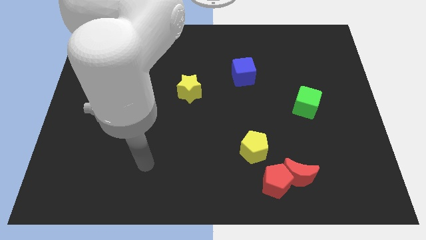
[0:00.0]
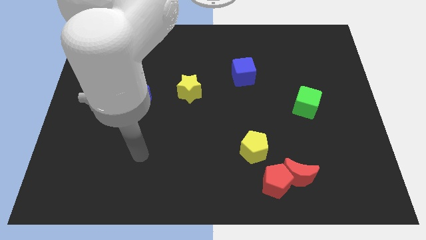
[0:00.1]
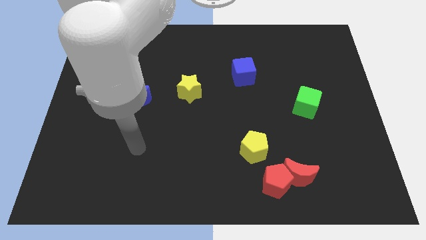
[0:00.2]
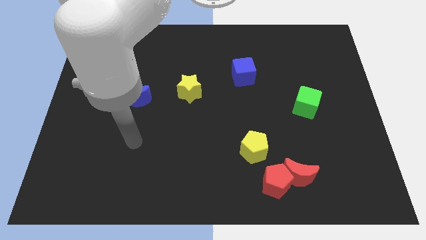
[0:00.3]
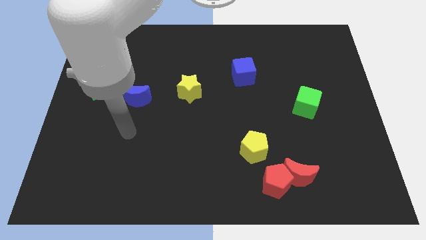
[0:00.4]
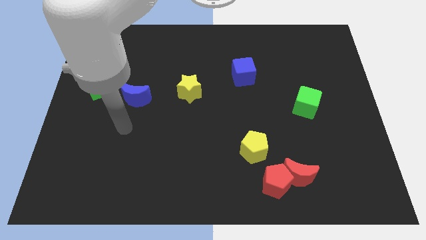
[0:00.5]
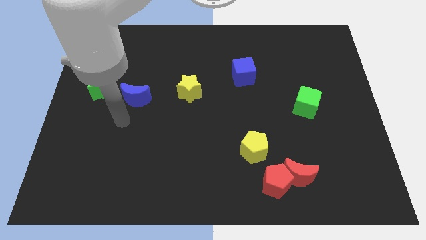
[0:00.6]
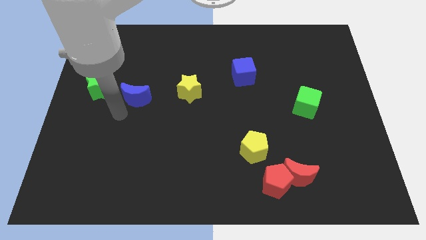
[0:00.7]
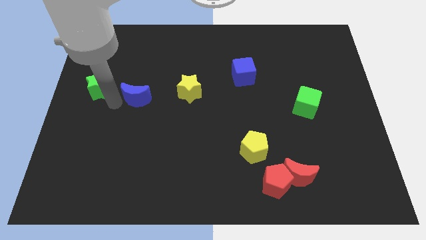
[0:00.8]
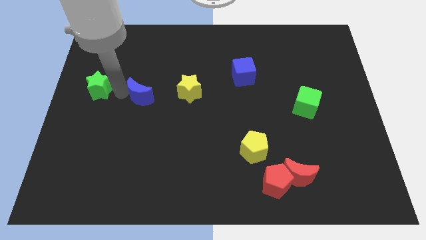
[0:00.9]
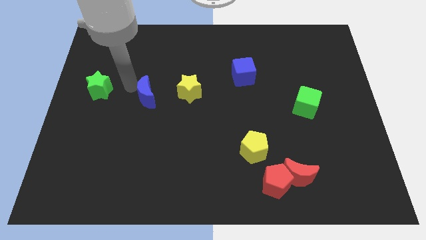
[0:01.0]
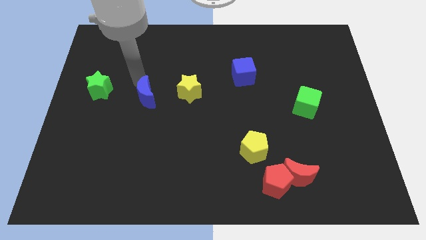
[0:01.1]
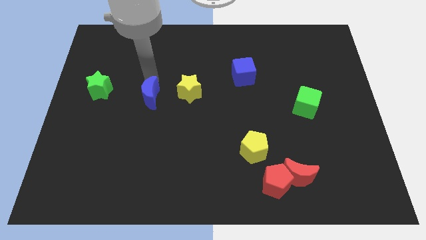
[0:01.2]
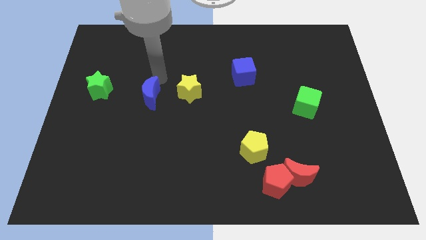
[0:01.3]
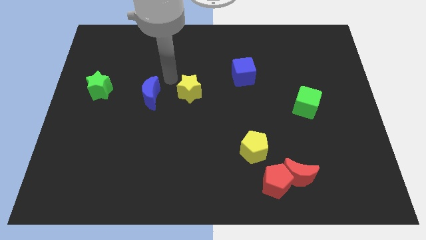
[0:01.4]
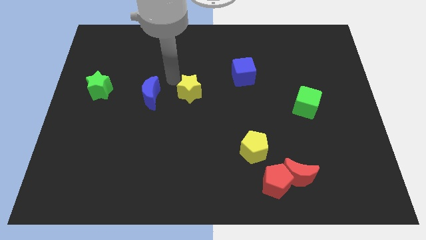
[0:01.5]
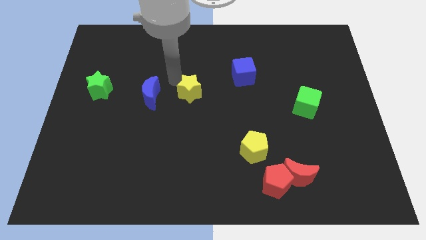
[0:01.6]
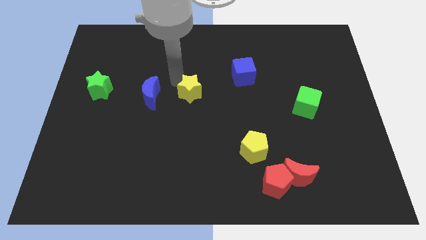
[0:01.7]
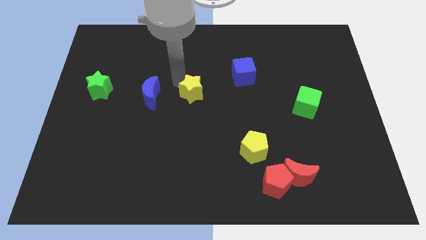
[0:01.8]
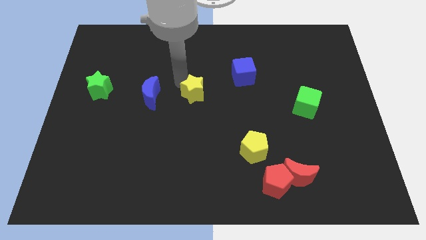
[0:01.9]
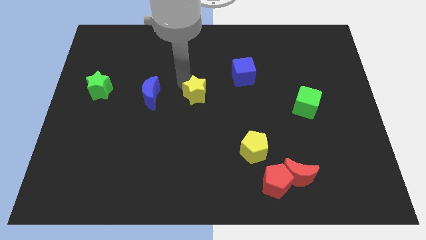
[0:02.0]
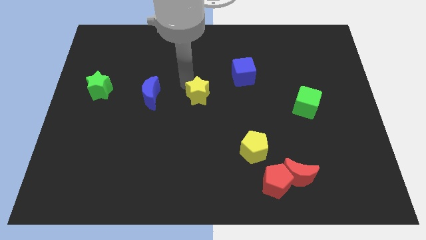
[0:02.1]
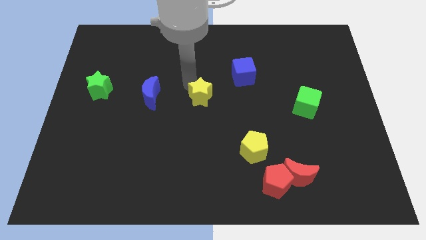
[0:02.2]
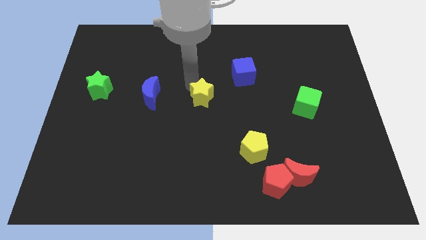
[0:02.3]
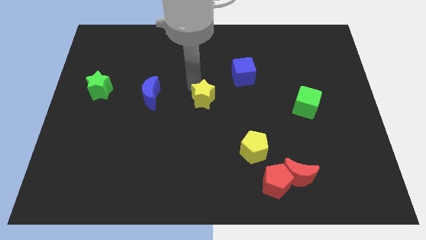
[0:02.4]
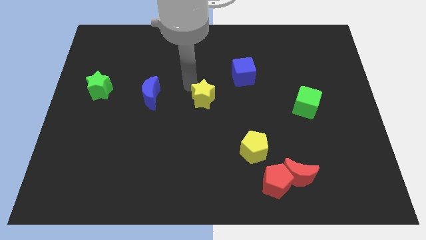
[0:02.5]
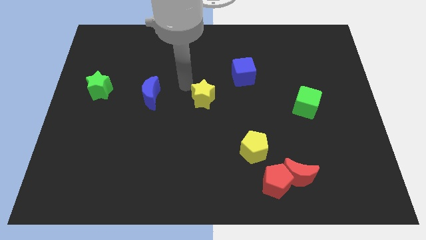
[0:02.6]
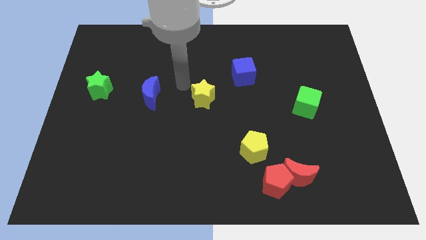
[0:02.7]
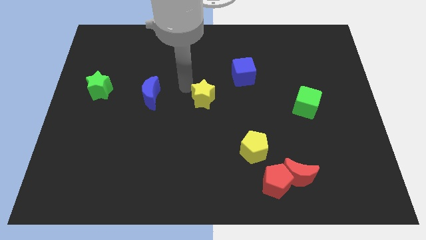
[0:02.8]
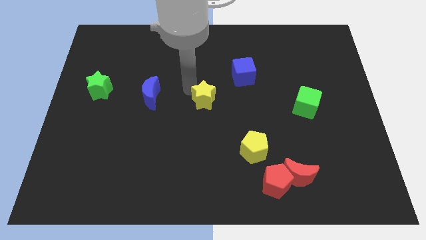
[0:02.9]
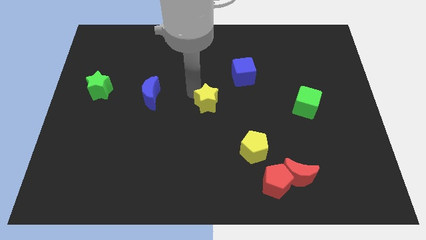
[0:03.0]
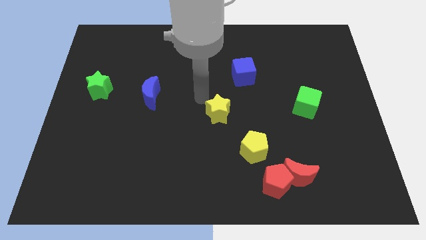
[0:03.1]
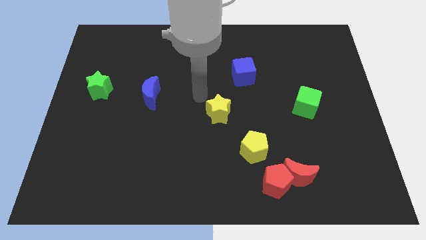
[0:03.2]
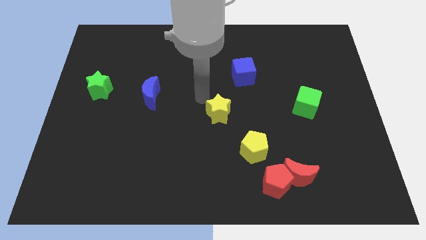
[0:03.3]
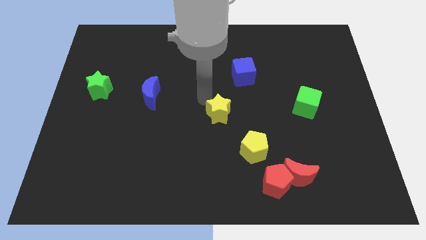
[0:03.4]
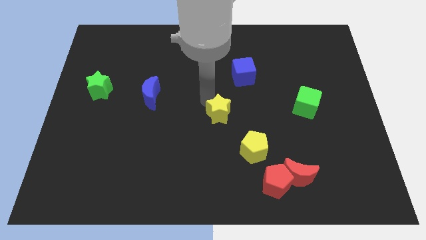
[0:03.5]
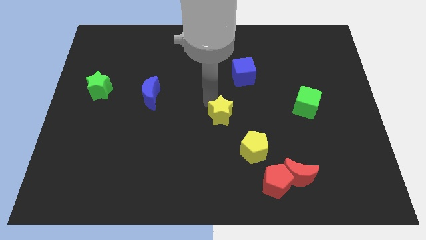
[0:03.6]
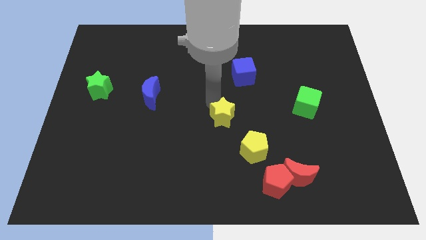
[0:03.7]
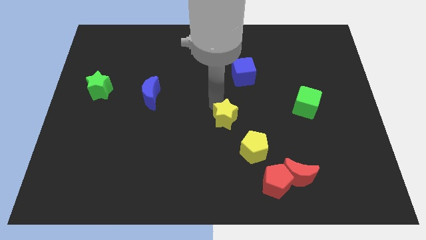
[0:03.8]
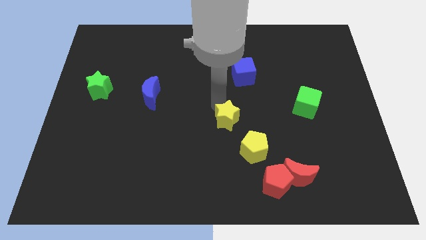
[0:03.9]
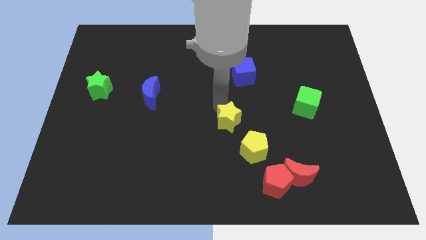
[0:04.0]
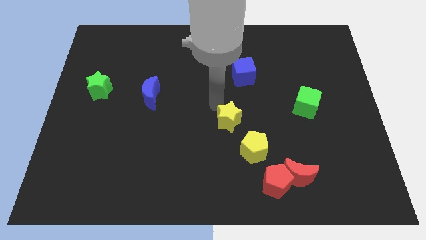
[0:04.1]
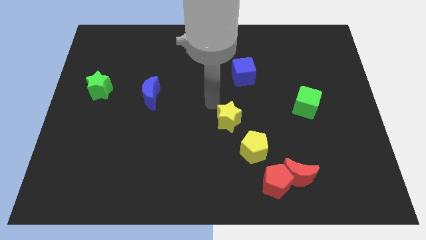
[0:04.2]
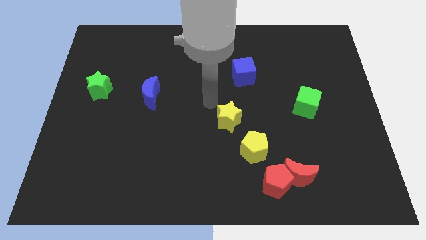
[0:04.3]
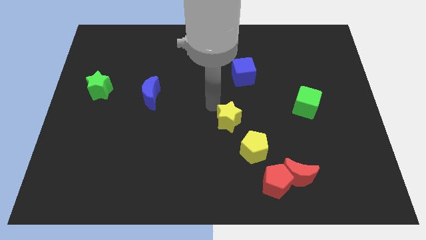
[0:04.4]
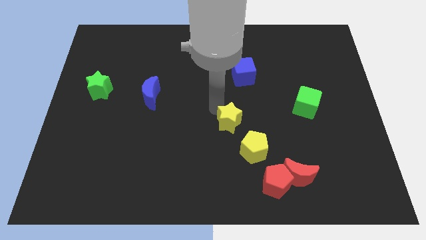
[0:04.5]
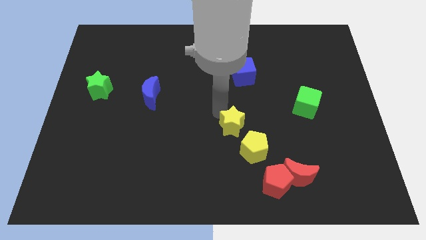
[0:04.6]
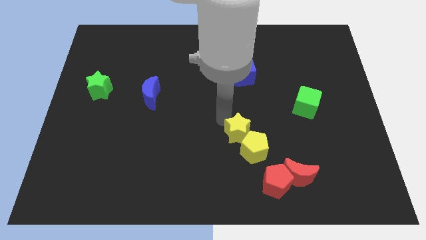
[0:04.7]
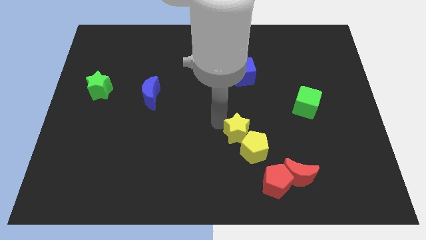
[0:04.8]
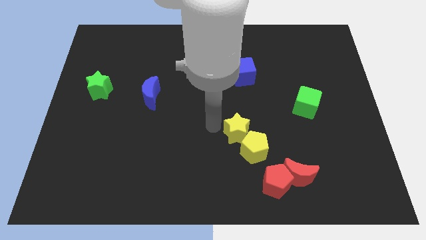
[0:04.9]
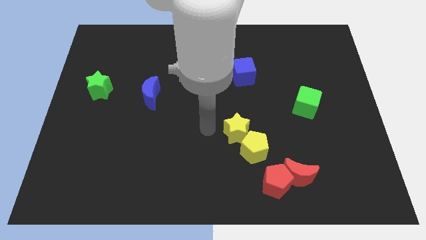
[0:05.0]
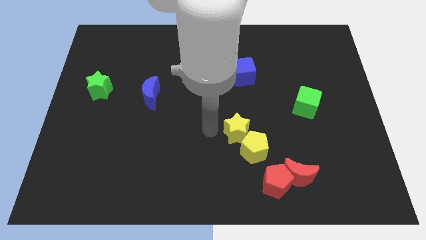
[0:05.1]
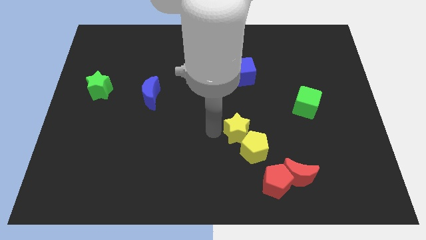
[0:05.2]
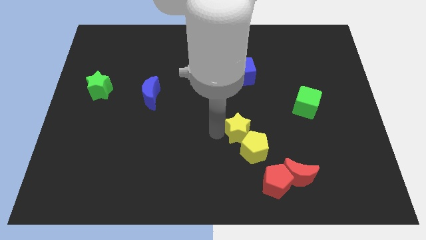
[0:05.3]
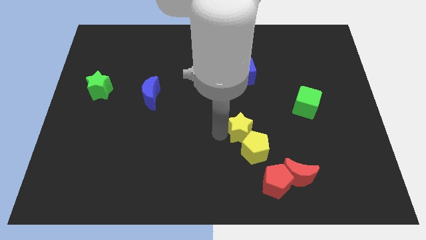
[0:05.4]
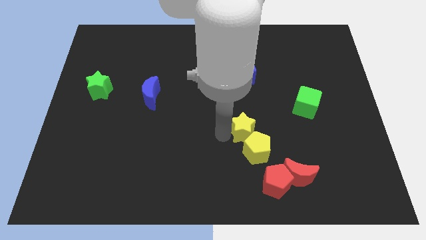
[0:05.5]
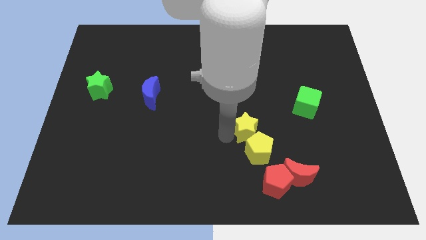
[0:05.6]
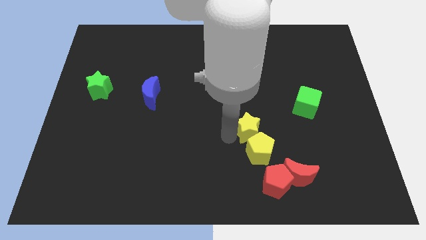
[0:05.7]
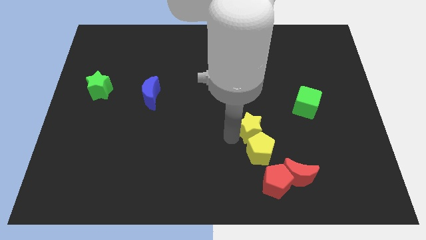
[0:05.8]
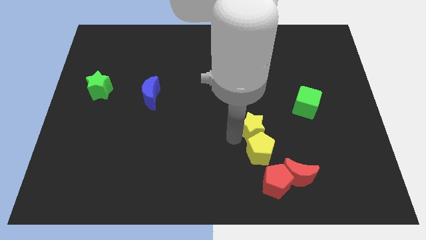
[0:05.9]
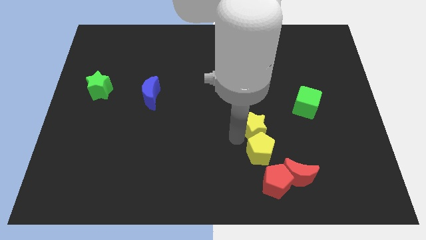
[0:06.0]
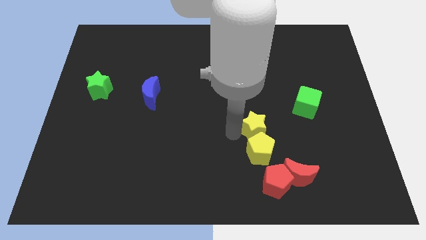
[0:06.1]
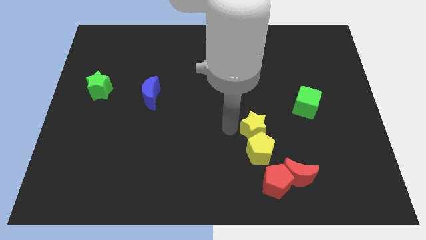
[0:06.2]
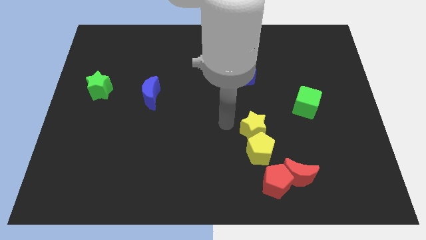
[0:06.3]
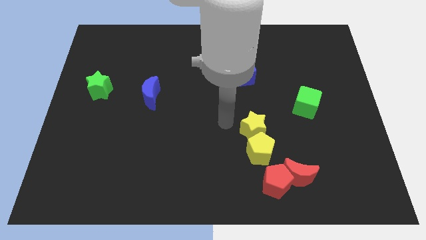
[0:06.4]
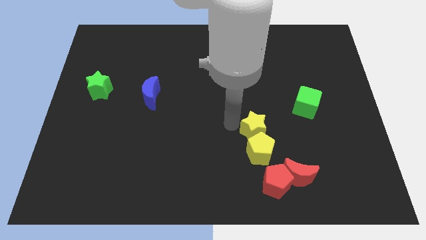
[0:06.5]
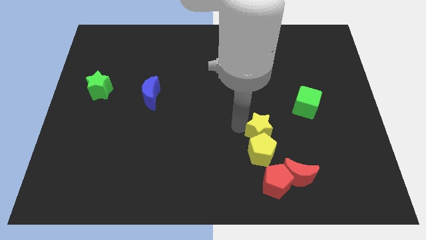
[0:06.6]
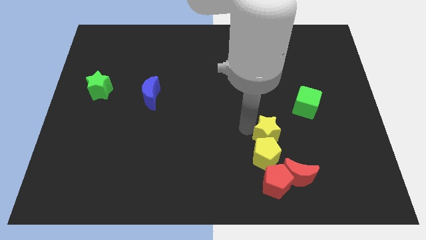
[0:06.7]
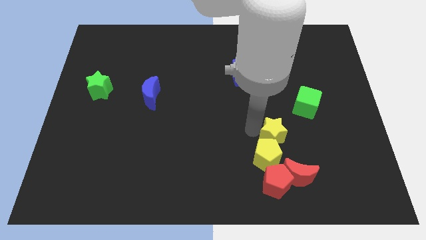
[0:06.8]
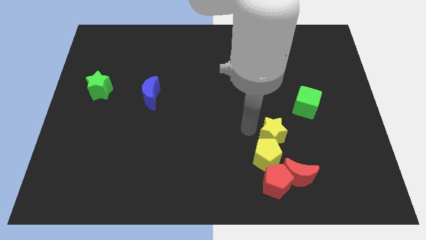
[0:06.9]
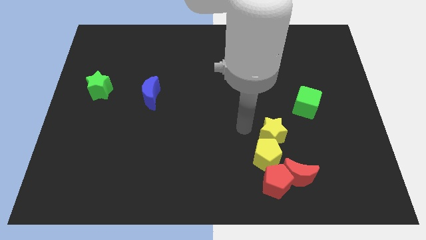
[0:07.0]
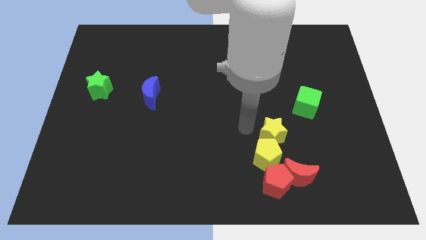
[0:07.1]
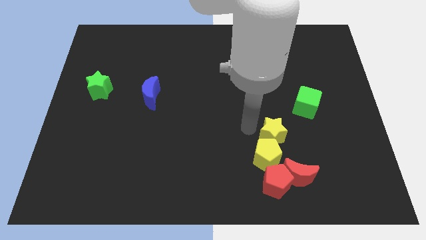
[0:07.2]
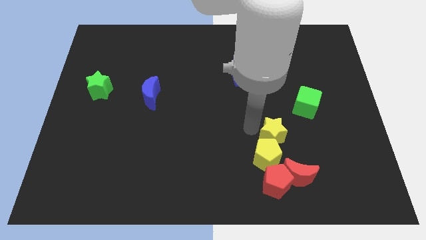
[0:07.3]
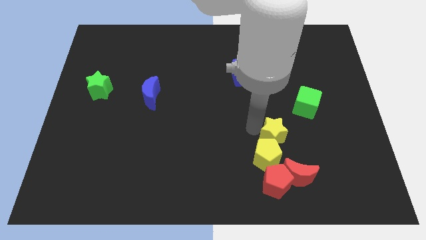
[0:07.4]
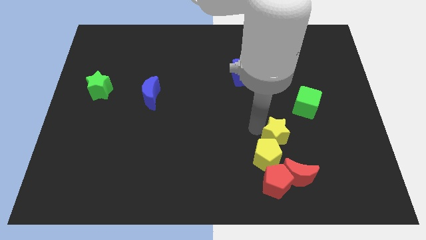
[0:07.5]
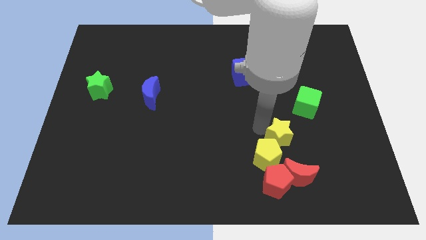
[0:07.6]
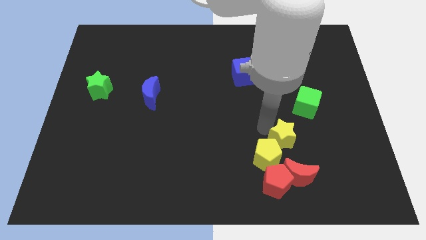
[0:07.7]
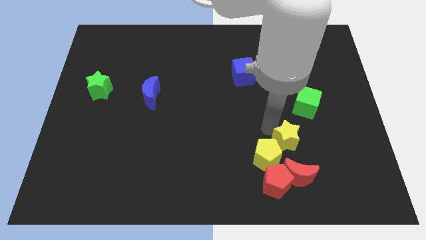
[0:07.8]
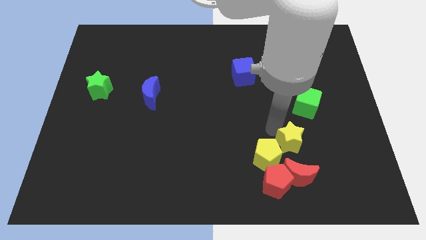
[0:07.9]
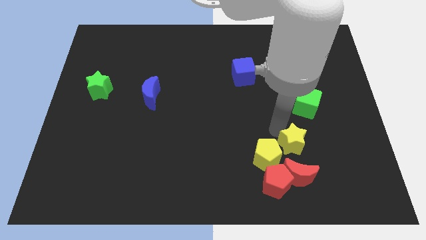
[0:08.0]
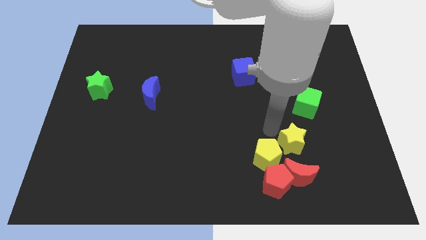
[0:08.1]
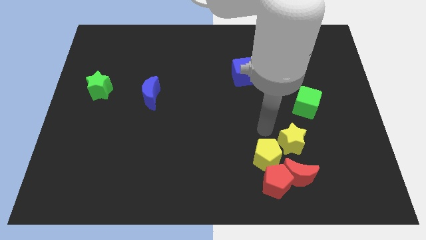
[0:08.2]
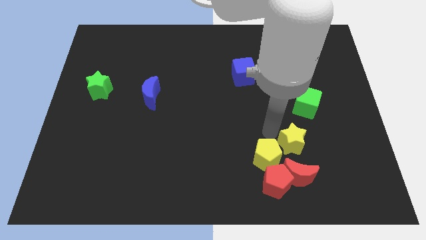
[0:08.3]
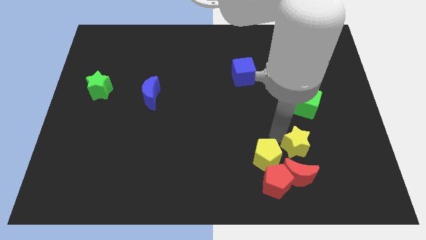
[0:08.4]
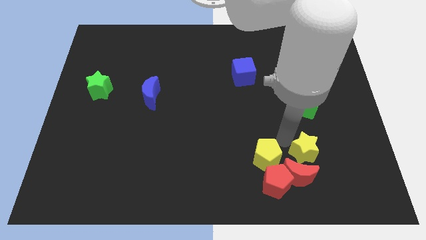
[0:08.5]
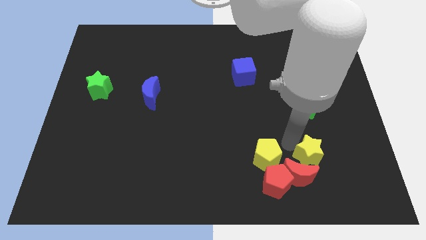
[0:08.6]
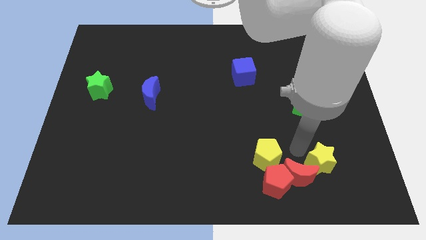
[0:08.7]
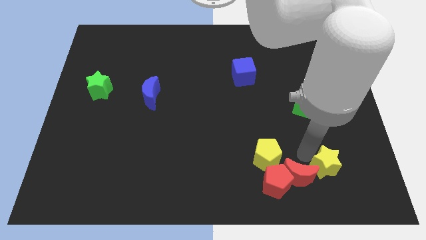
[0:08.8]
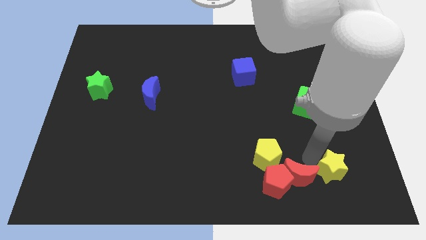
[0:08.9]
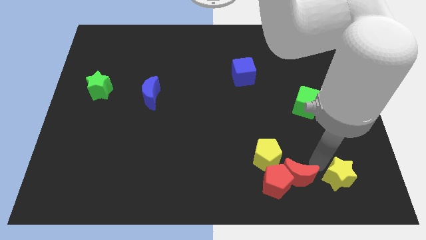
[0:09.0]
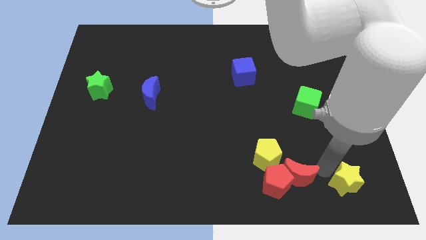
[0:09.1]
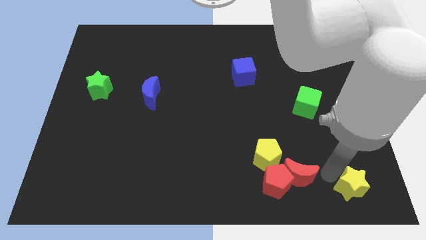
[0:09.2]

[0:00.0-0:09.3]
put the yellow star to the bottom right corner
